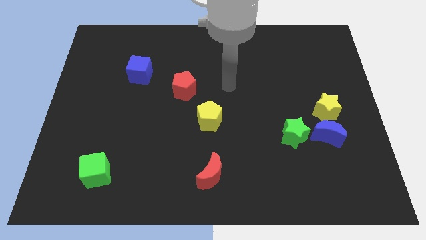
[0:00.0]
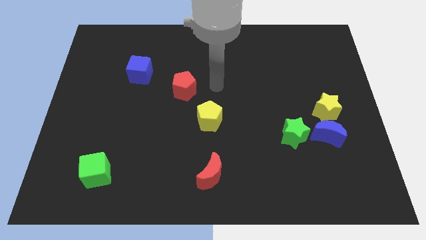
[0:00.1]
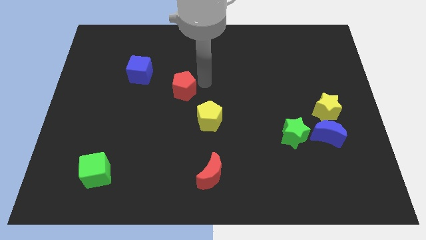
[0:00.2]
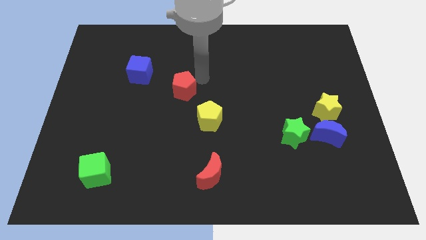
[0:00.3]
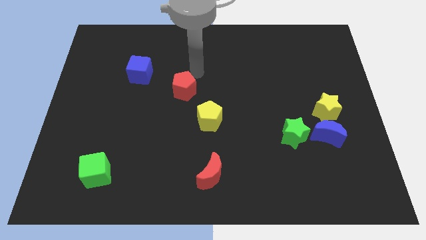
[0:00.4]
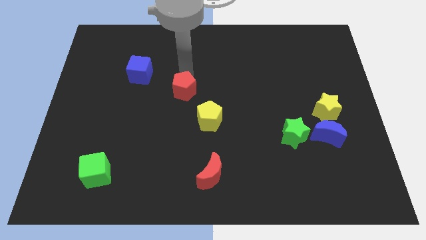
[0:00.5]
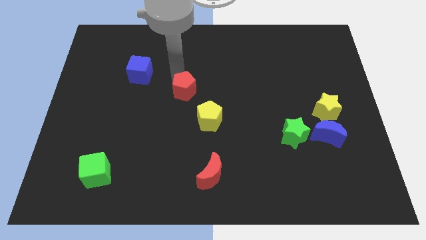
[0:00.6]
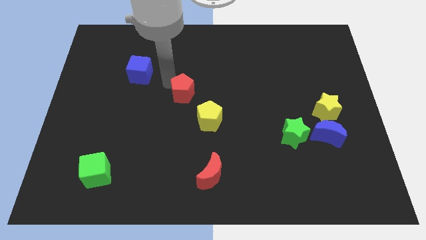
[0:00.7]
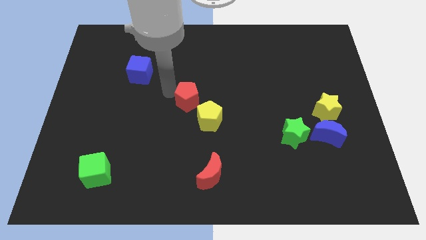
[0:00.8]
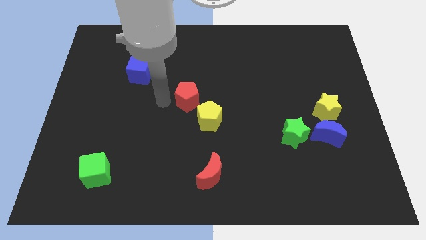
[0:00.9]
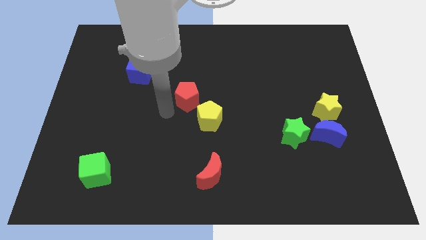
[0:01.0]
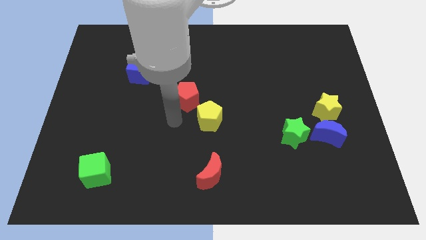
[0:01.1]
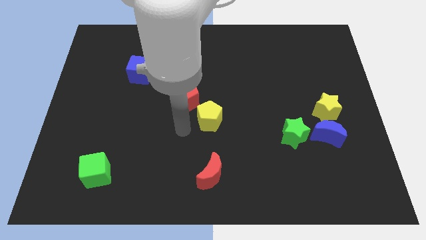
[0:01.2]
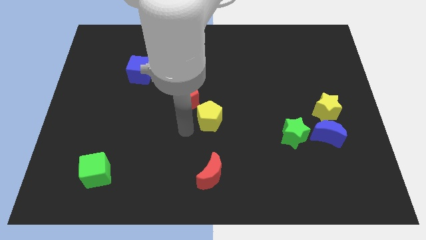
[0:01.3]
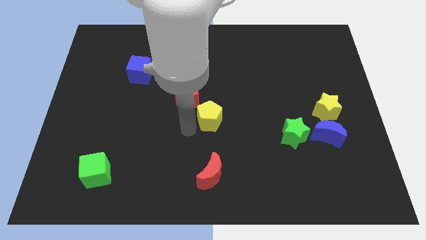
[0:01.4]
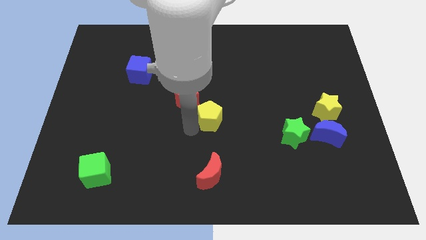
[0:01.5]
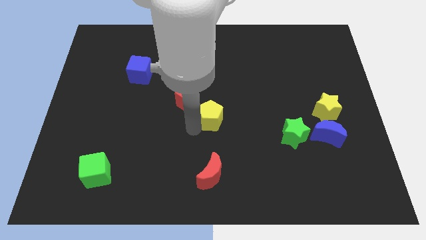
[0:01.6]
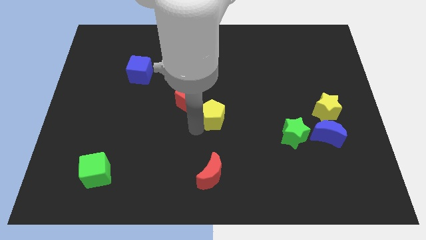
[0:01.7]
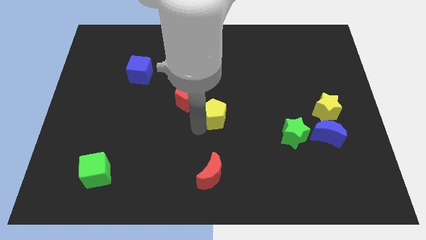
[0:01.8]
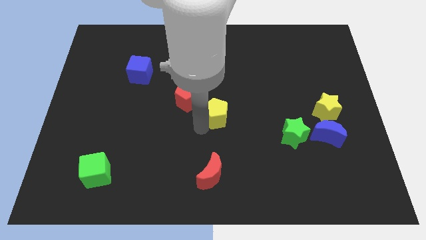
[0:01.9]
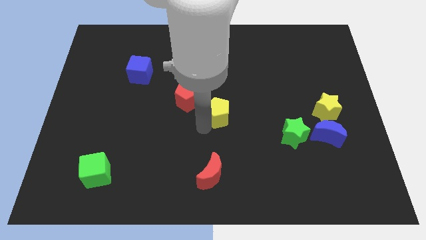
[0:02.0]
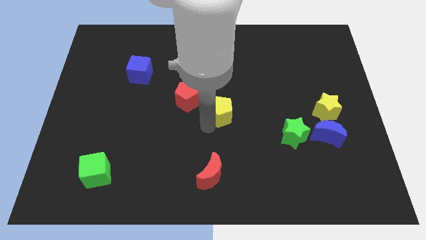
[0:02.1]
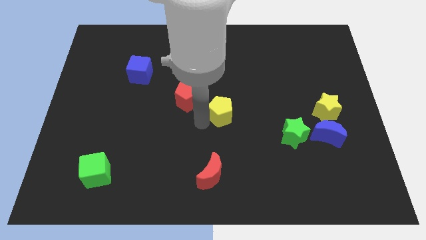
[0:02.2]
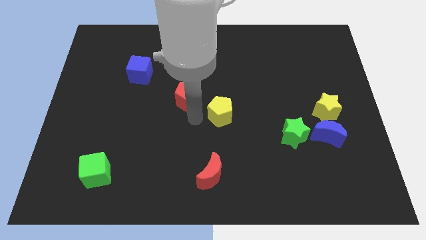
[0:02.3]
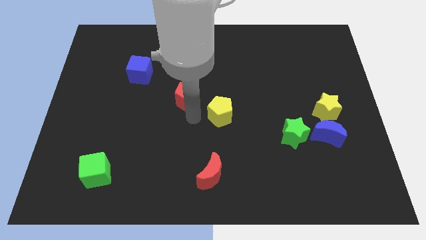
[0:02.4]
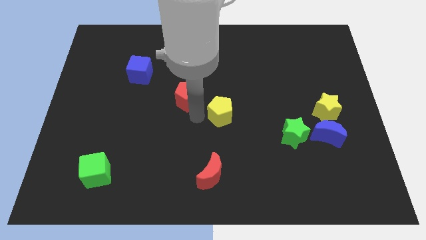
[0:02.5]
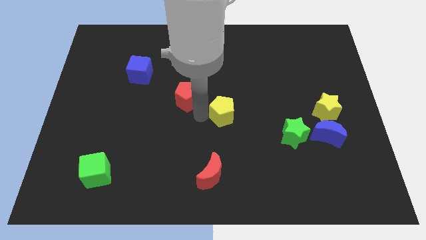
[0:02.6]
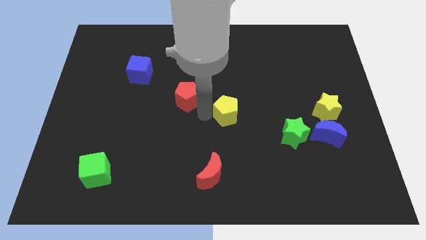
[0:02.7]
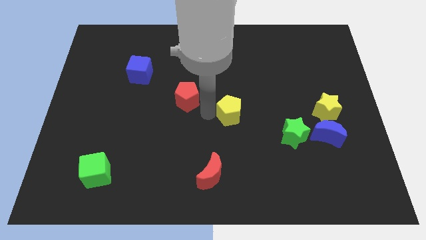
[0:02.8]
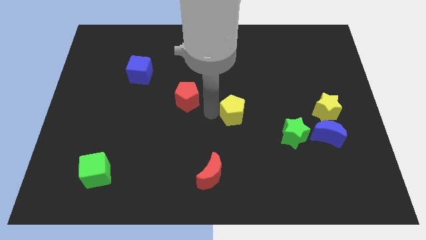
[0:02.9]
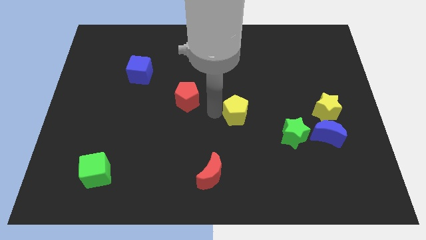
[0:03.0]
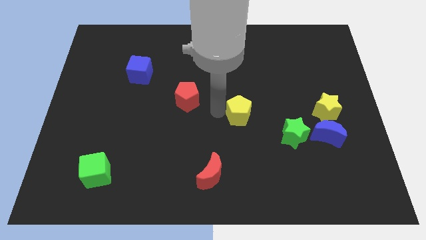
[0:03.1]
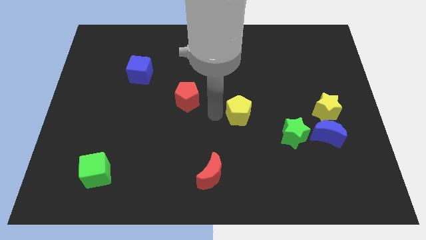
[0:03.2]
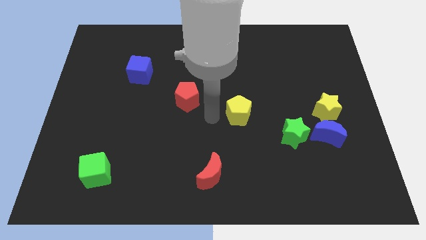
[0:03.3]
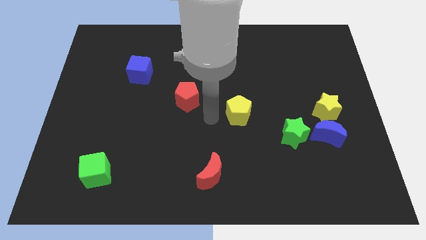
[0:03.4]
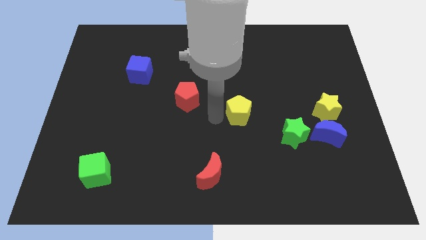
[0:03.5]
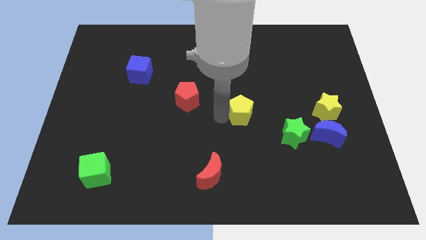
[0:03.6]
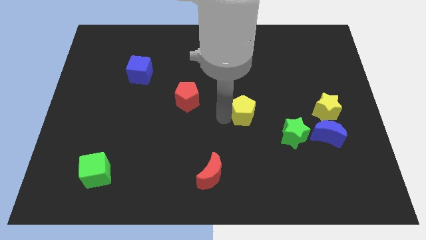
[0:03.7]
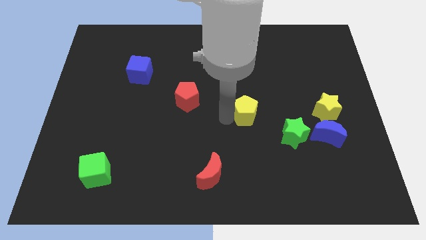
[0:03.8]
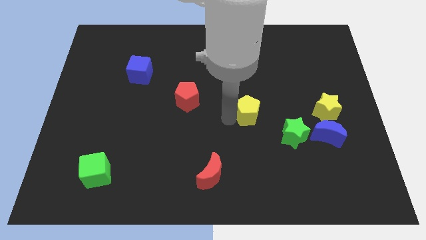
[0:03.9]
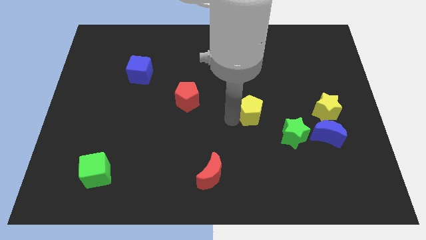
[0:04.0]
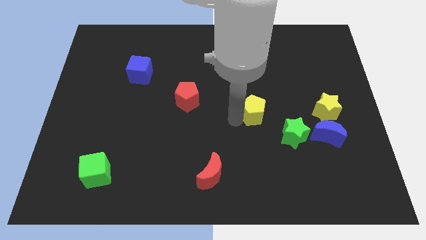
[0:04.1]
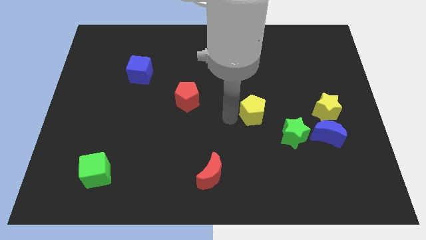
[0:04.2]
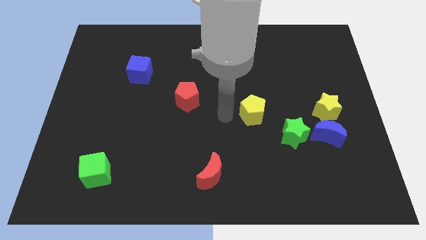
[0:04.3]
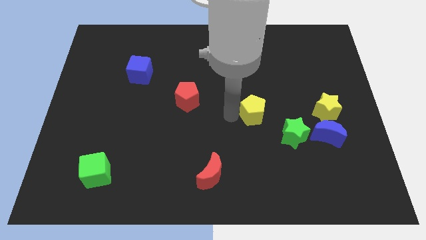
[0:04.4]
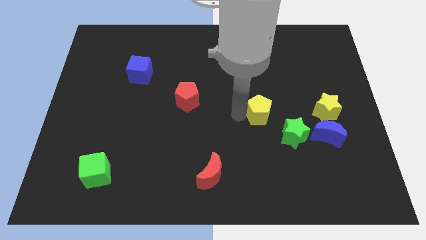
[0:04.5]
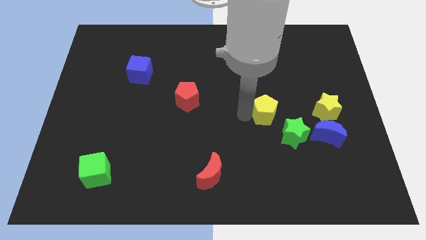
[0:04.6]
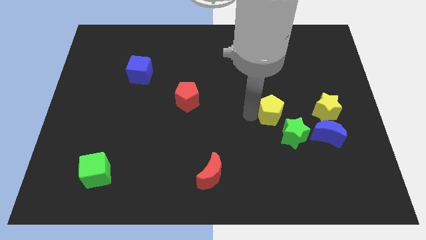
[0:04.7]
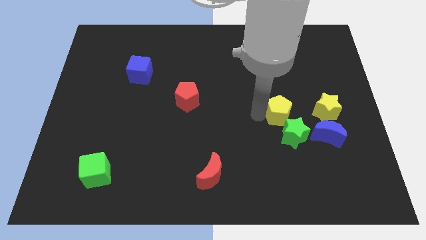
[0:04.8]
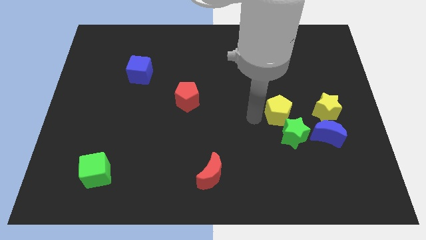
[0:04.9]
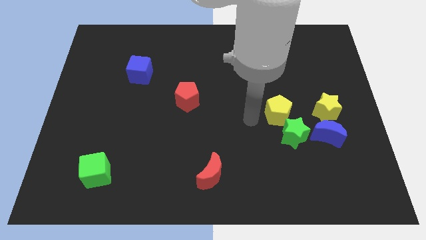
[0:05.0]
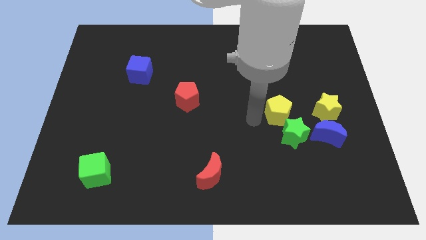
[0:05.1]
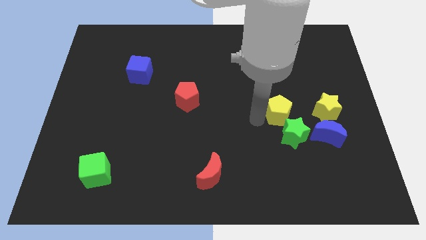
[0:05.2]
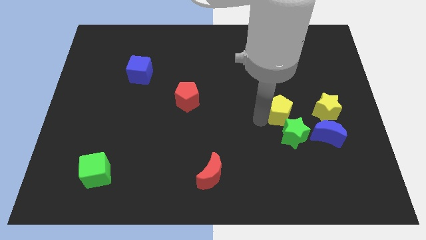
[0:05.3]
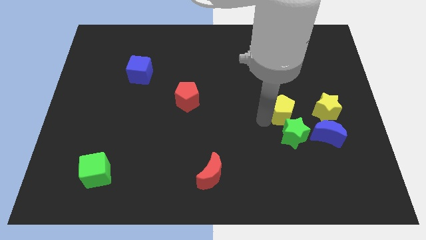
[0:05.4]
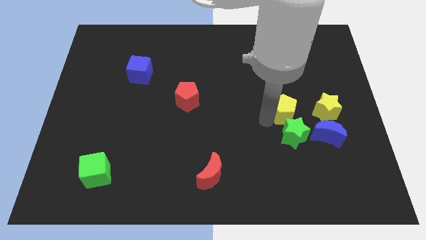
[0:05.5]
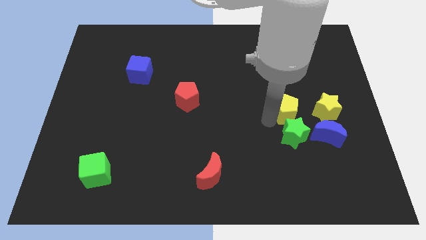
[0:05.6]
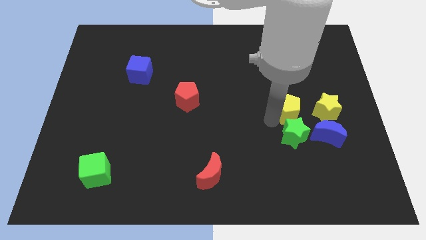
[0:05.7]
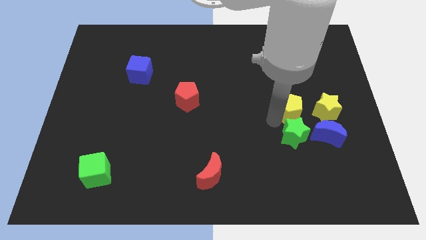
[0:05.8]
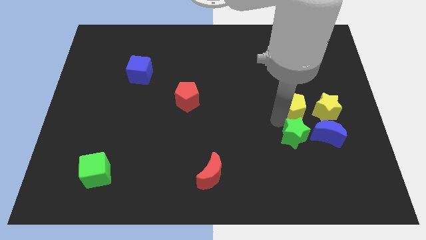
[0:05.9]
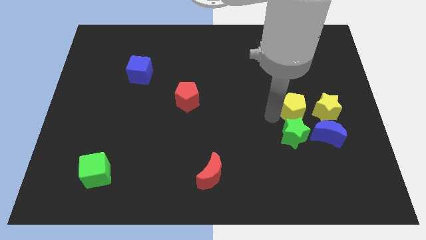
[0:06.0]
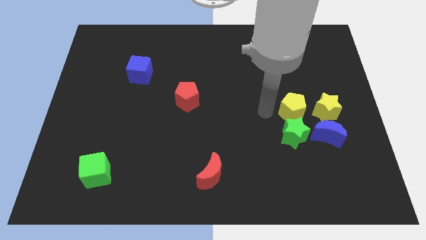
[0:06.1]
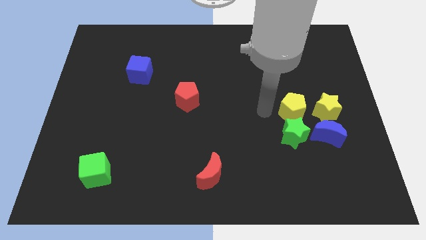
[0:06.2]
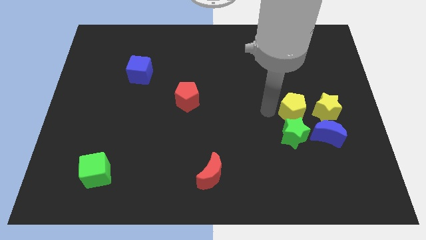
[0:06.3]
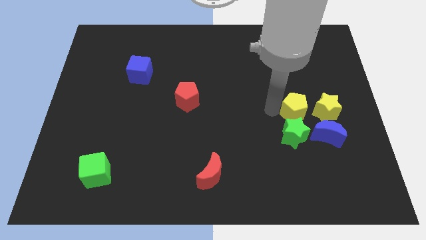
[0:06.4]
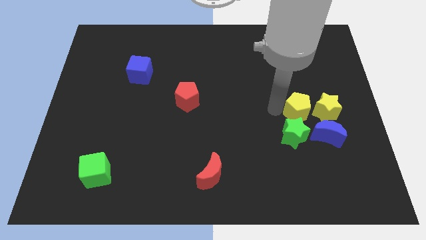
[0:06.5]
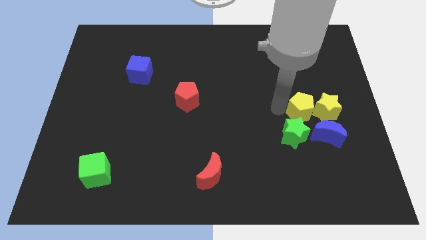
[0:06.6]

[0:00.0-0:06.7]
slide the yellow pentagon towards the yellow star
